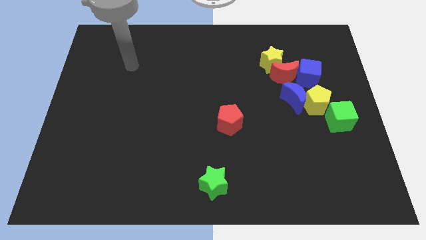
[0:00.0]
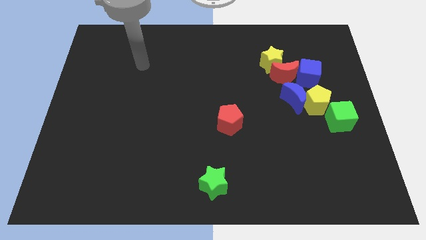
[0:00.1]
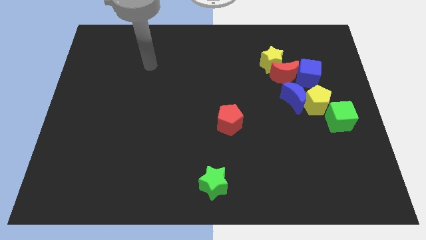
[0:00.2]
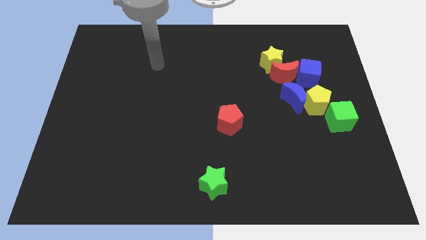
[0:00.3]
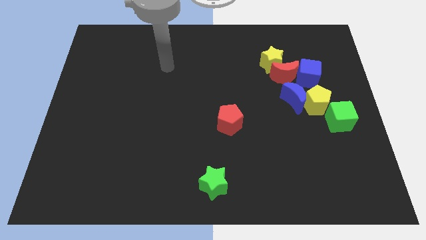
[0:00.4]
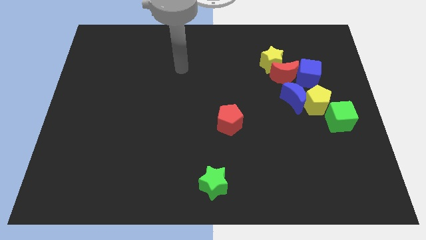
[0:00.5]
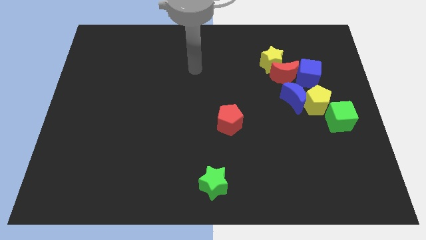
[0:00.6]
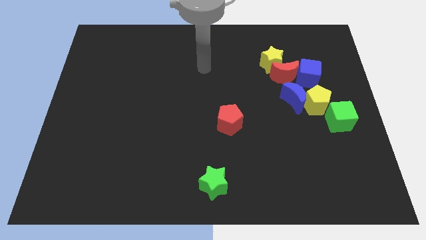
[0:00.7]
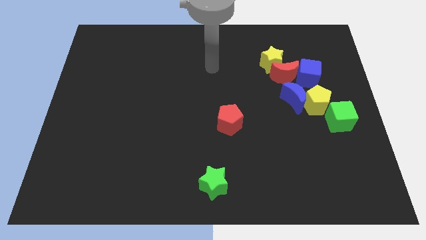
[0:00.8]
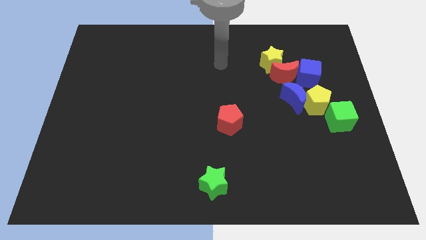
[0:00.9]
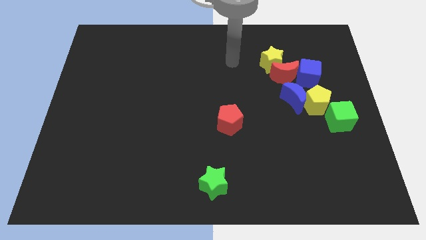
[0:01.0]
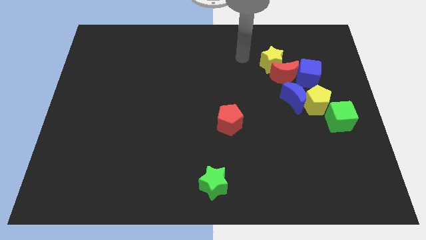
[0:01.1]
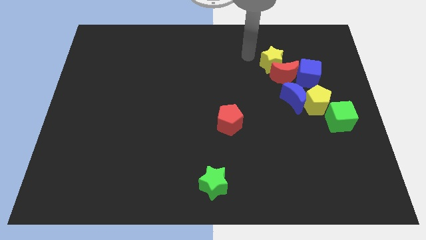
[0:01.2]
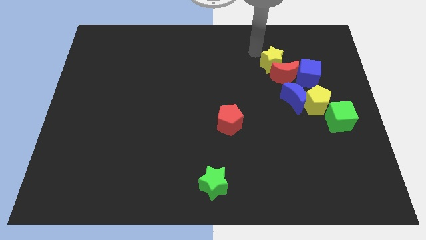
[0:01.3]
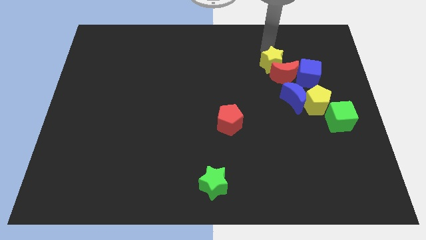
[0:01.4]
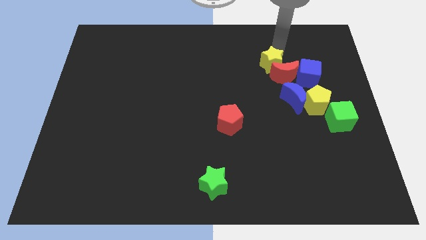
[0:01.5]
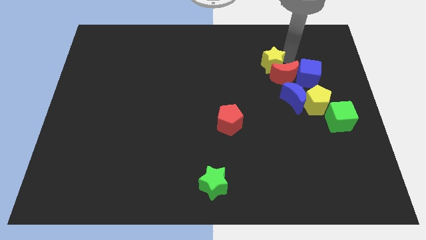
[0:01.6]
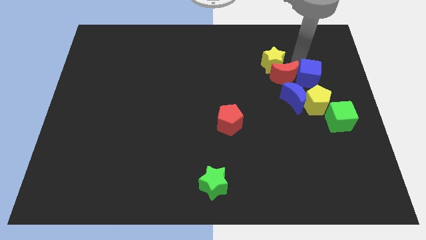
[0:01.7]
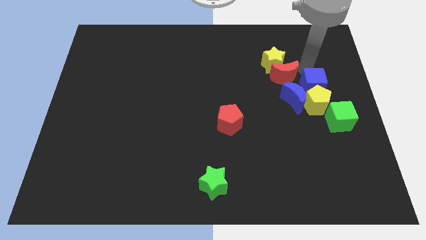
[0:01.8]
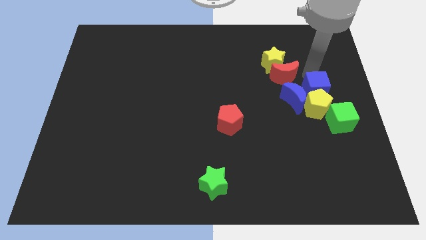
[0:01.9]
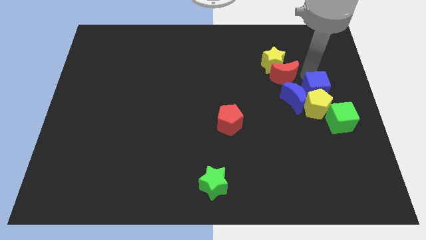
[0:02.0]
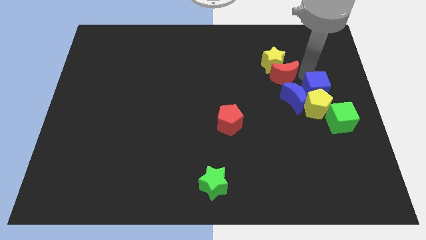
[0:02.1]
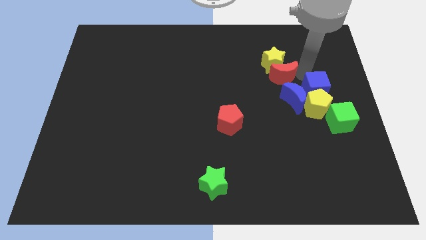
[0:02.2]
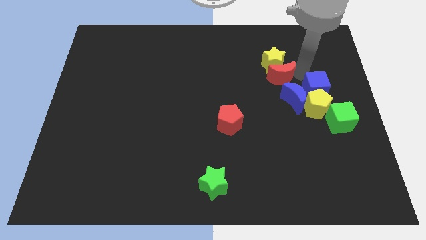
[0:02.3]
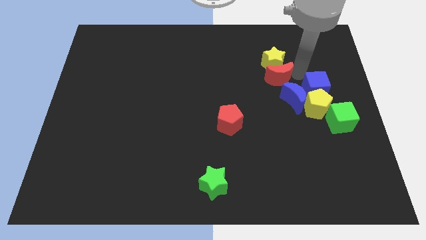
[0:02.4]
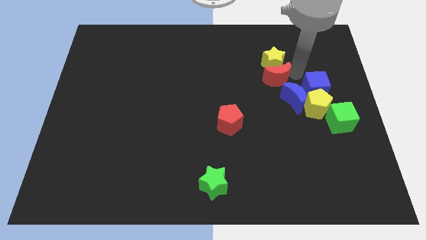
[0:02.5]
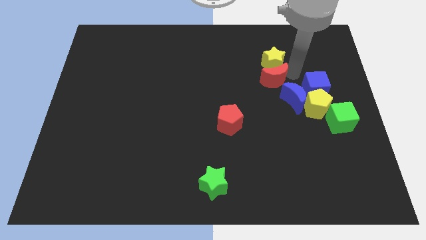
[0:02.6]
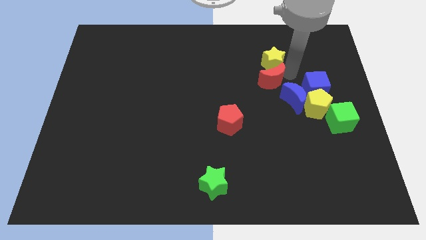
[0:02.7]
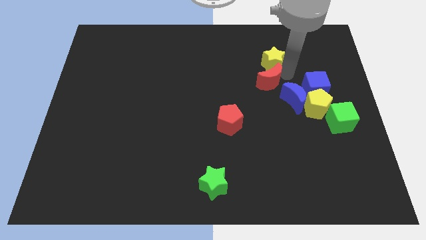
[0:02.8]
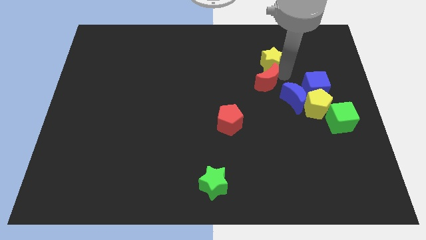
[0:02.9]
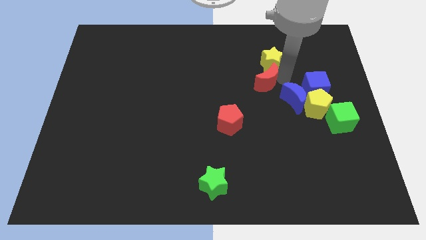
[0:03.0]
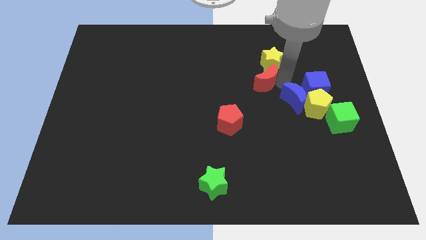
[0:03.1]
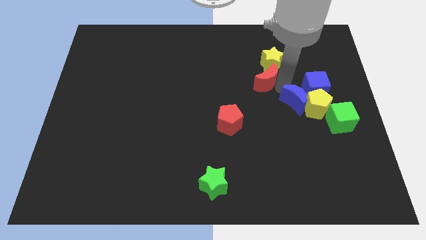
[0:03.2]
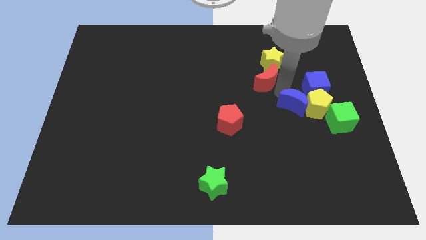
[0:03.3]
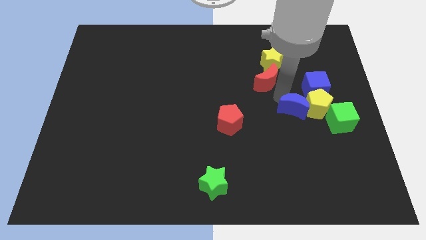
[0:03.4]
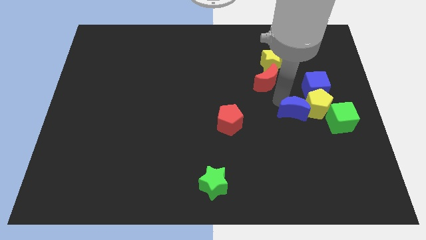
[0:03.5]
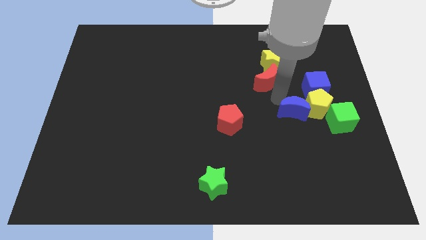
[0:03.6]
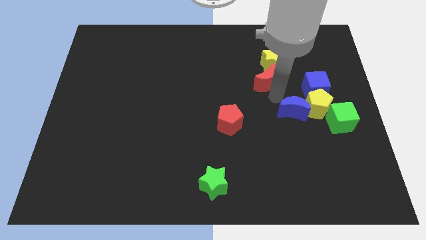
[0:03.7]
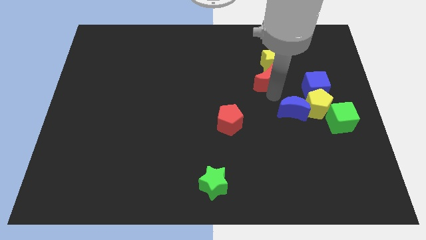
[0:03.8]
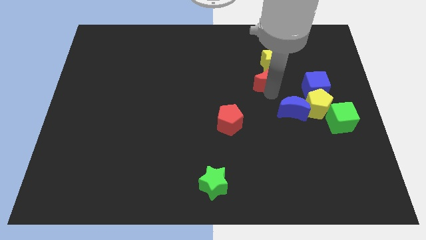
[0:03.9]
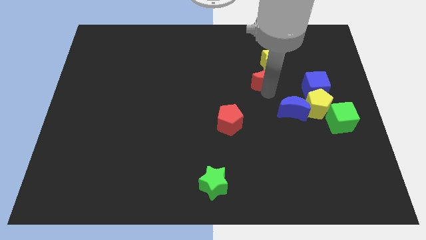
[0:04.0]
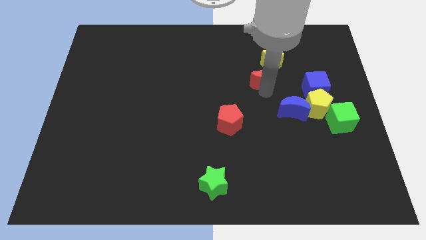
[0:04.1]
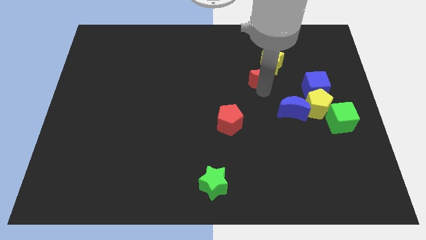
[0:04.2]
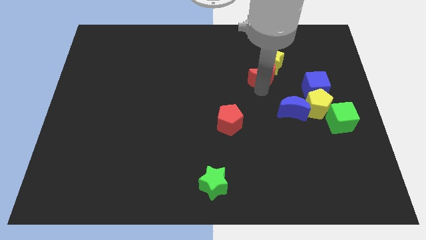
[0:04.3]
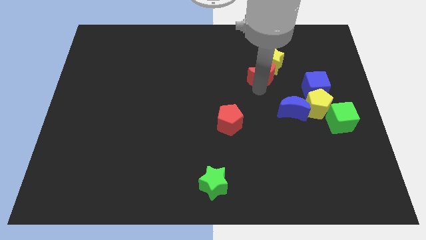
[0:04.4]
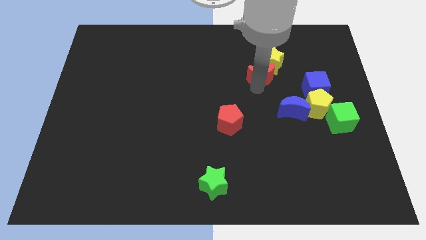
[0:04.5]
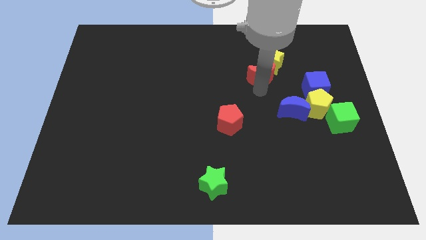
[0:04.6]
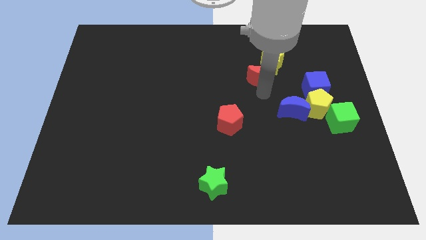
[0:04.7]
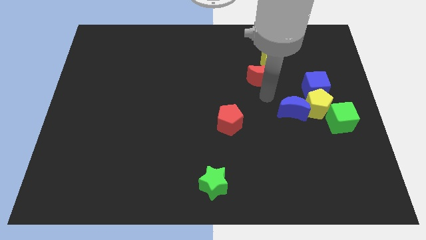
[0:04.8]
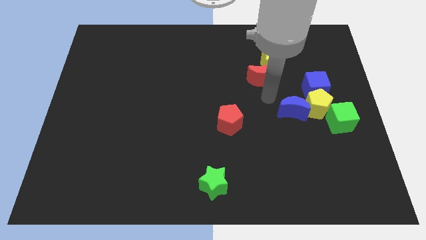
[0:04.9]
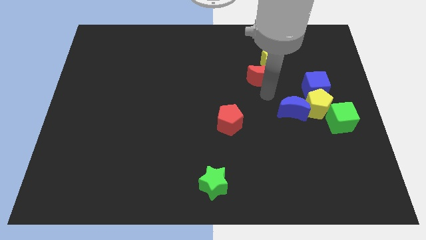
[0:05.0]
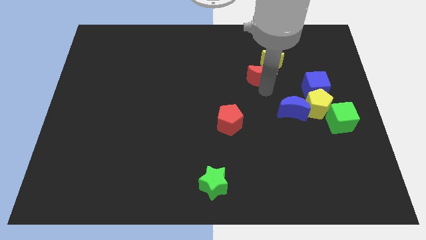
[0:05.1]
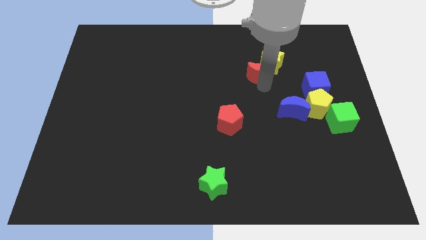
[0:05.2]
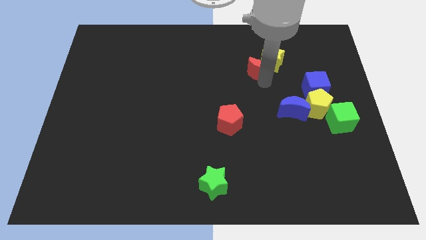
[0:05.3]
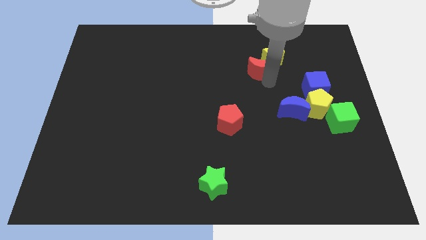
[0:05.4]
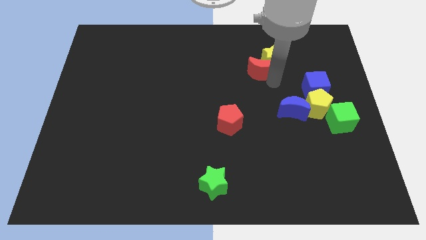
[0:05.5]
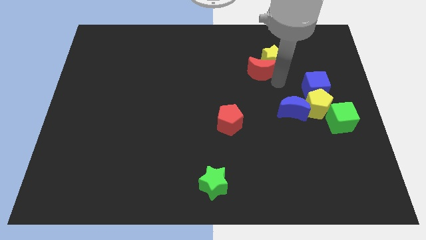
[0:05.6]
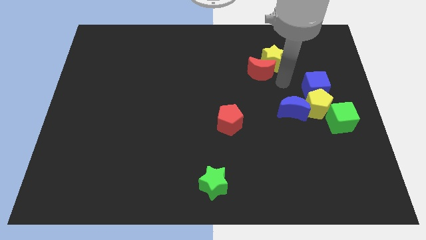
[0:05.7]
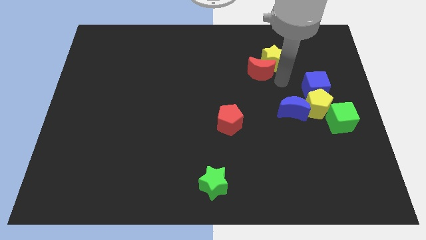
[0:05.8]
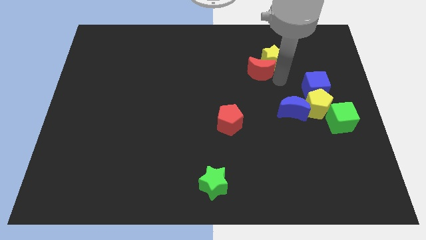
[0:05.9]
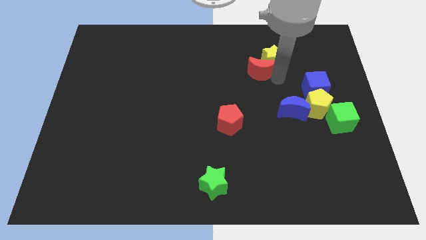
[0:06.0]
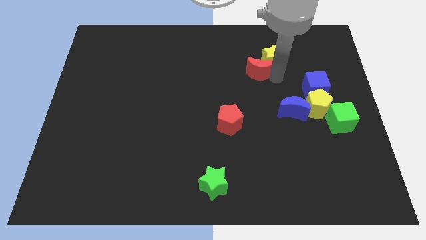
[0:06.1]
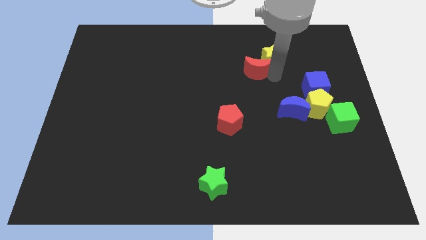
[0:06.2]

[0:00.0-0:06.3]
move the red moon away from the group

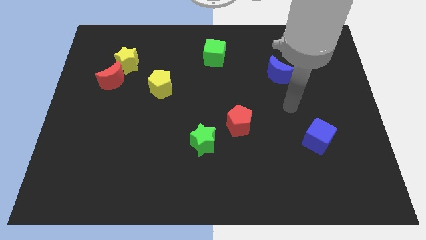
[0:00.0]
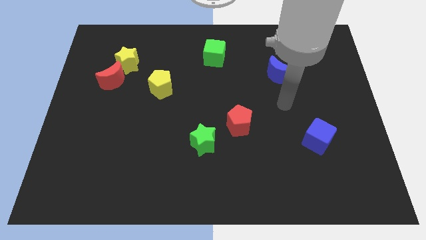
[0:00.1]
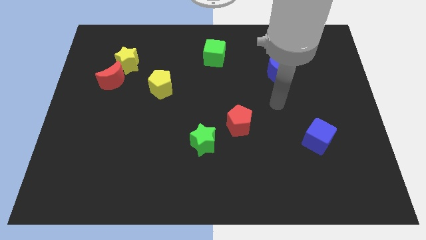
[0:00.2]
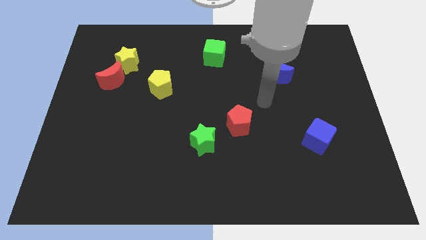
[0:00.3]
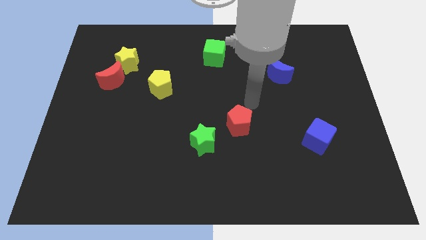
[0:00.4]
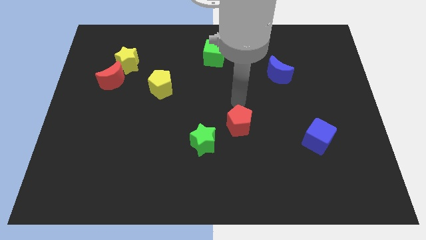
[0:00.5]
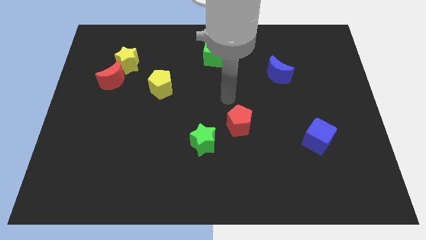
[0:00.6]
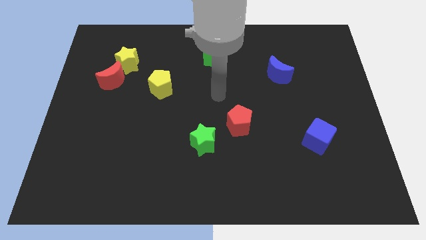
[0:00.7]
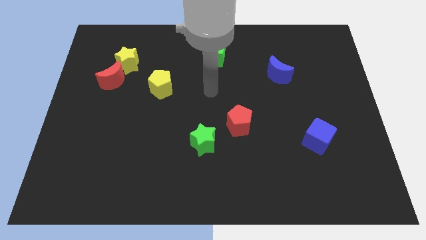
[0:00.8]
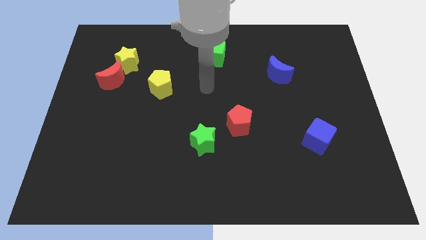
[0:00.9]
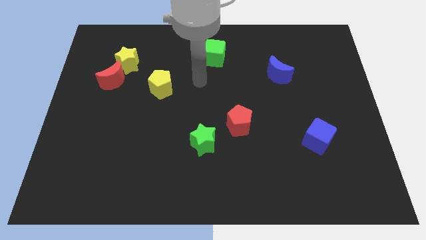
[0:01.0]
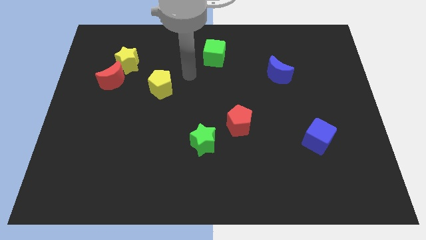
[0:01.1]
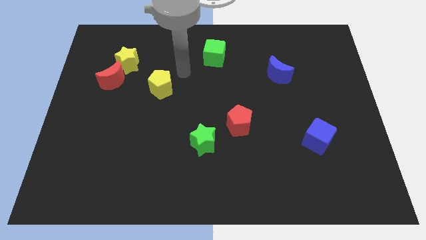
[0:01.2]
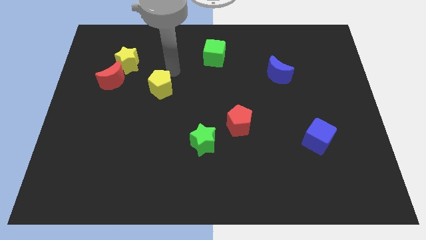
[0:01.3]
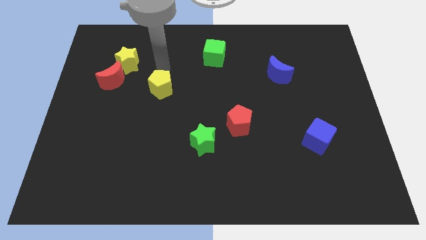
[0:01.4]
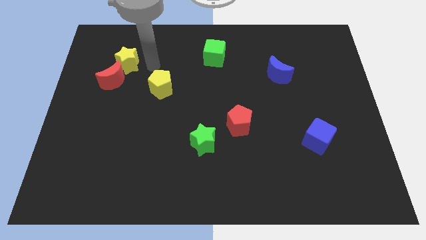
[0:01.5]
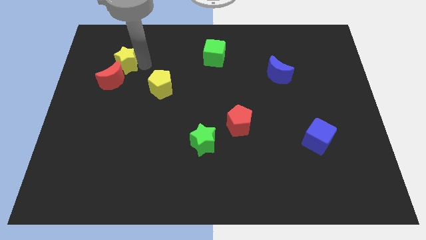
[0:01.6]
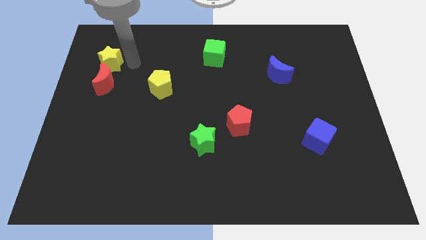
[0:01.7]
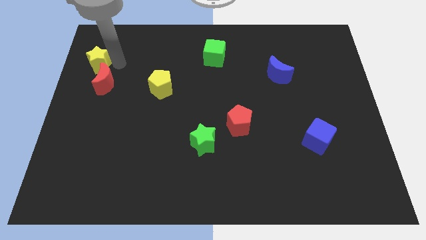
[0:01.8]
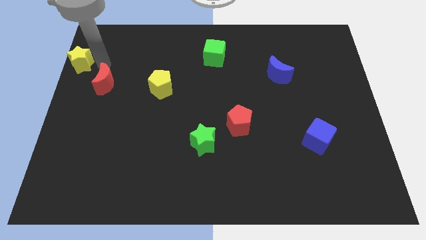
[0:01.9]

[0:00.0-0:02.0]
move the red moon away from the yellow star

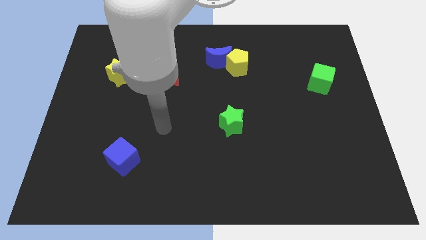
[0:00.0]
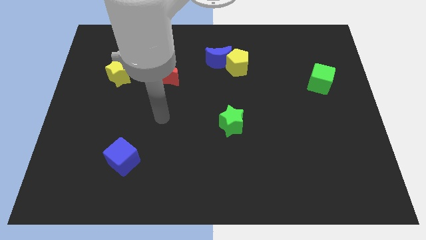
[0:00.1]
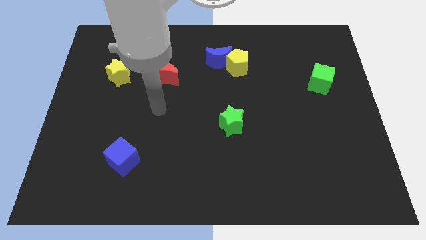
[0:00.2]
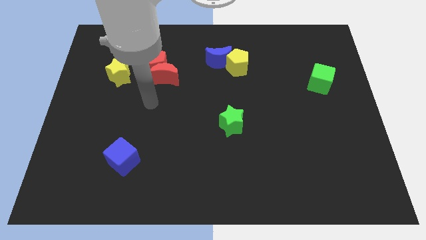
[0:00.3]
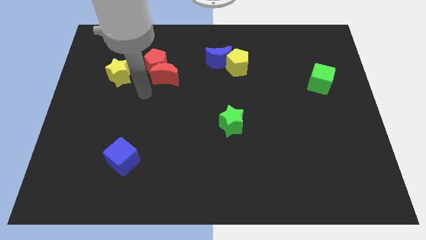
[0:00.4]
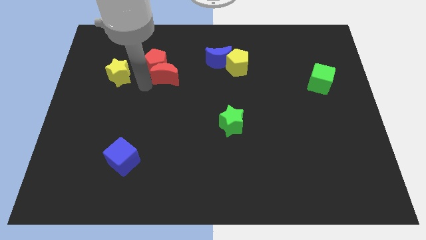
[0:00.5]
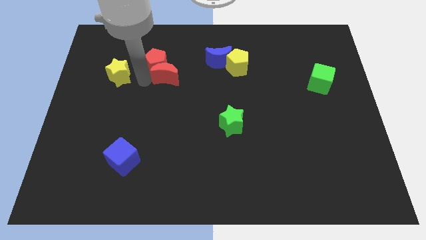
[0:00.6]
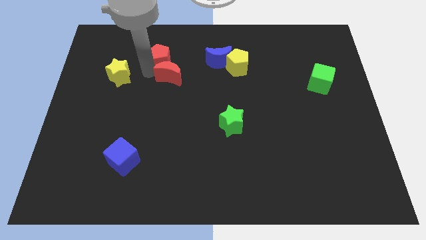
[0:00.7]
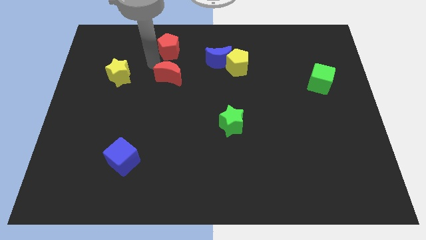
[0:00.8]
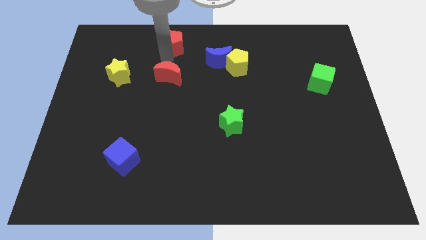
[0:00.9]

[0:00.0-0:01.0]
separate the red moon from the red pentagon

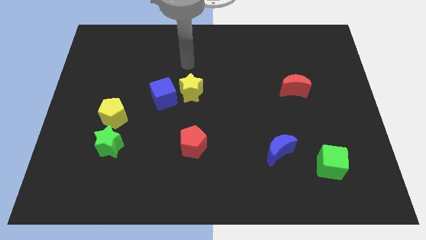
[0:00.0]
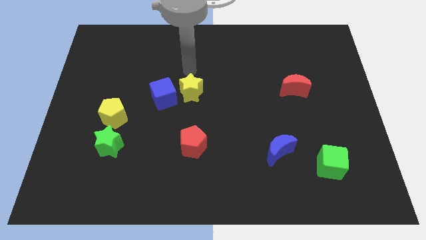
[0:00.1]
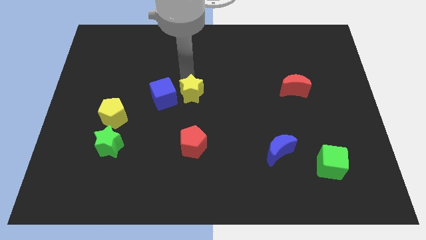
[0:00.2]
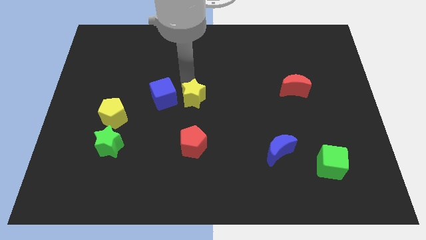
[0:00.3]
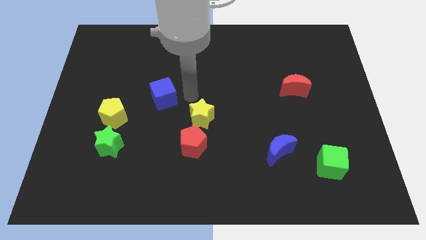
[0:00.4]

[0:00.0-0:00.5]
move the blue cube away from the yellow star
